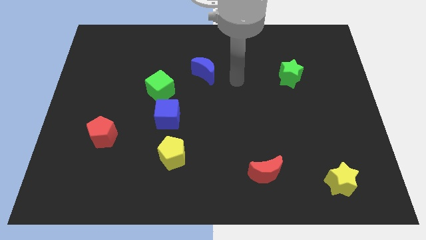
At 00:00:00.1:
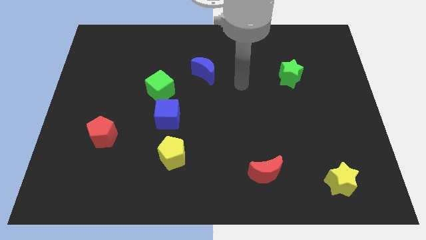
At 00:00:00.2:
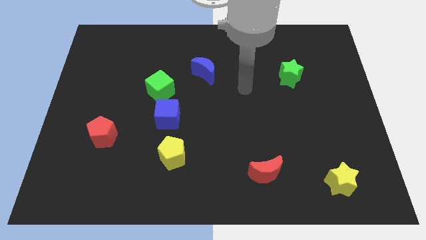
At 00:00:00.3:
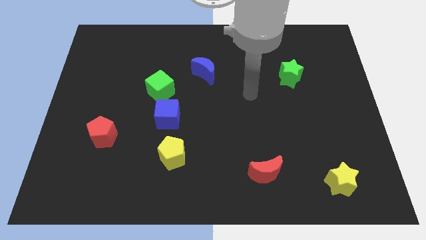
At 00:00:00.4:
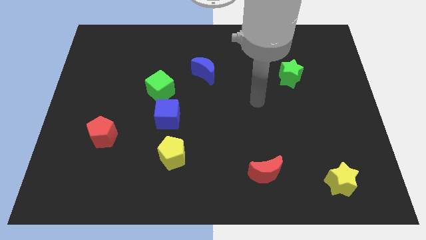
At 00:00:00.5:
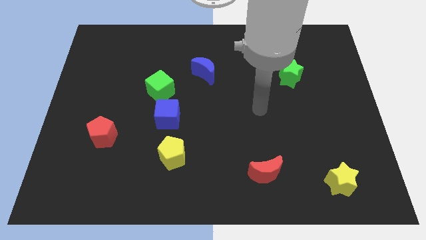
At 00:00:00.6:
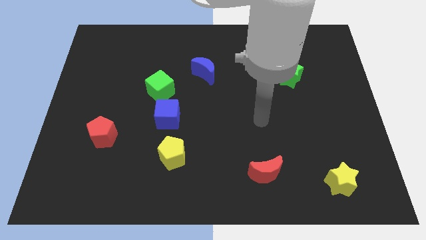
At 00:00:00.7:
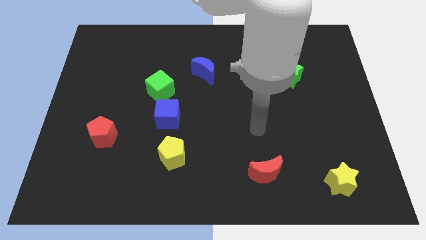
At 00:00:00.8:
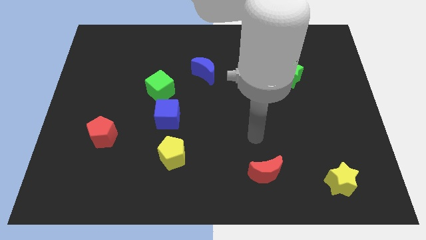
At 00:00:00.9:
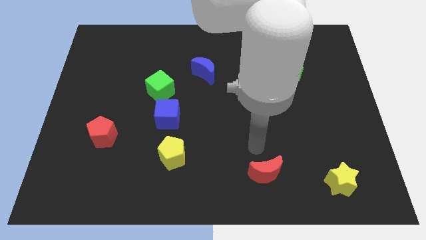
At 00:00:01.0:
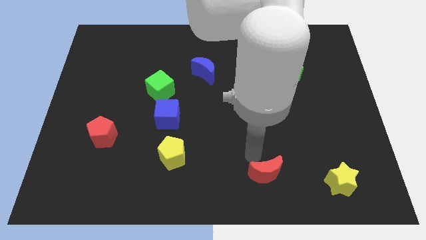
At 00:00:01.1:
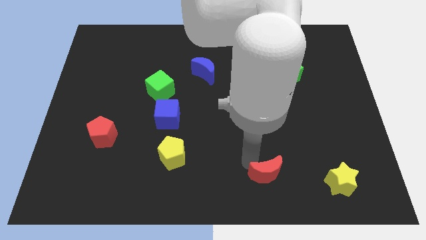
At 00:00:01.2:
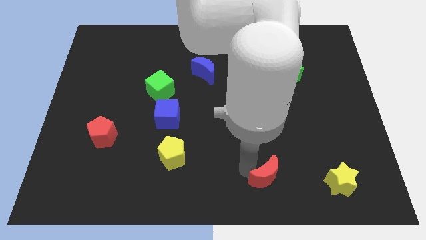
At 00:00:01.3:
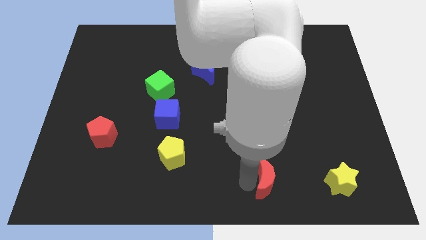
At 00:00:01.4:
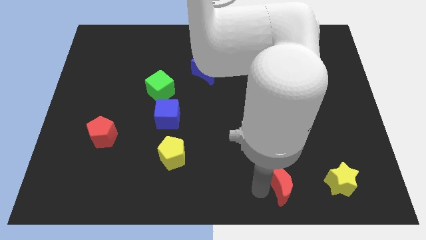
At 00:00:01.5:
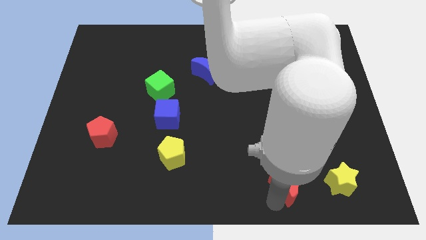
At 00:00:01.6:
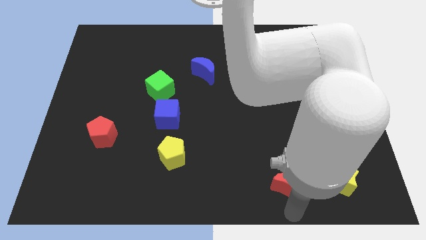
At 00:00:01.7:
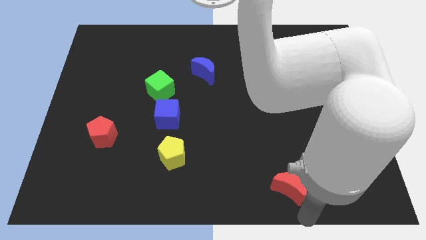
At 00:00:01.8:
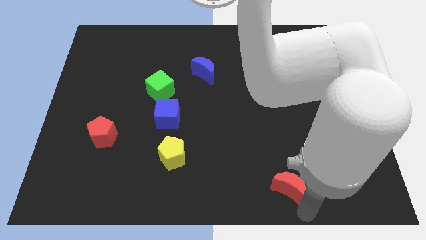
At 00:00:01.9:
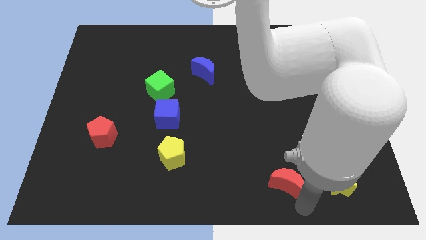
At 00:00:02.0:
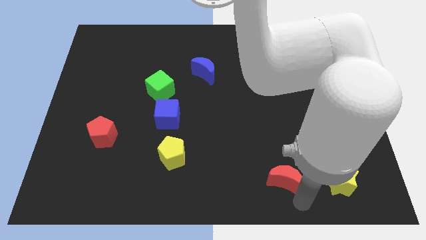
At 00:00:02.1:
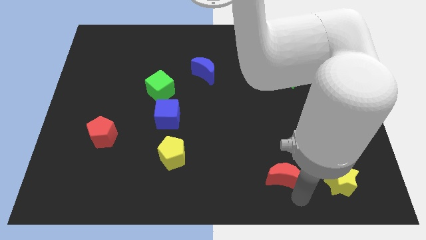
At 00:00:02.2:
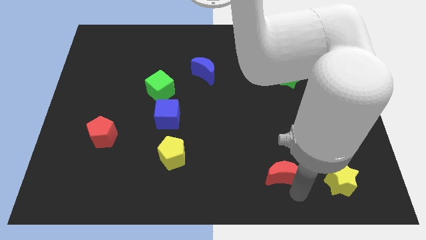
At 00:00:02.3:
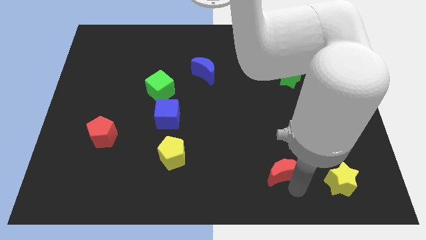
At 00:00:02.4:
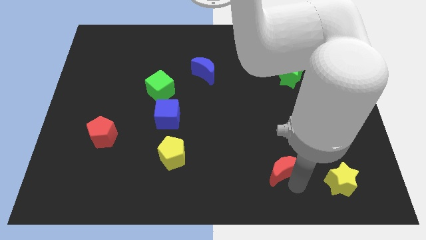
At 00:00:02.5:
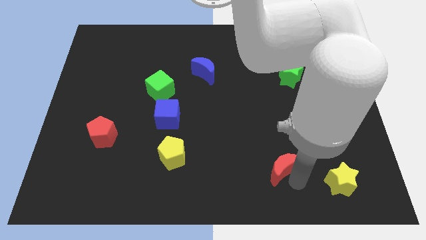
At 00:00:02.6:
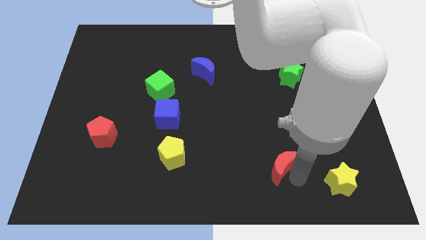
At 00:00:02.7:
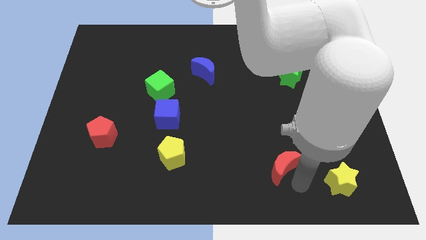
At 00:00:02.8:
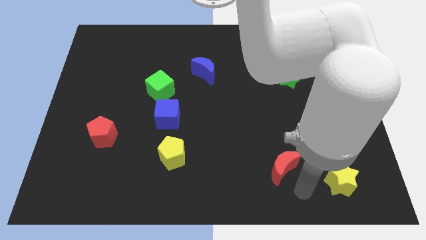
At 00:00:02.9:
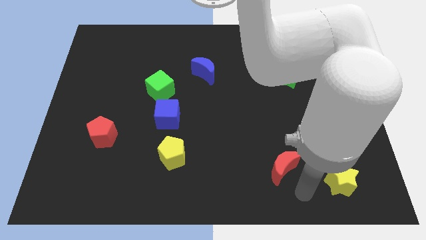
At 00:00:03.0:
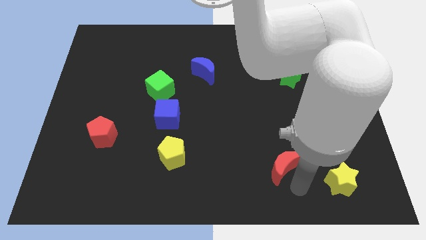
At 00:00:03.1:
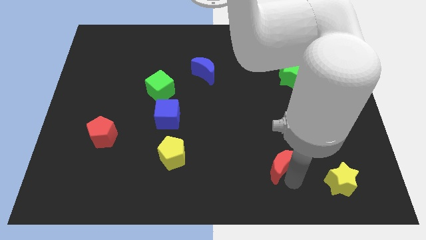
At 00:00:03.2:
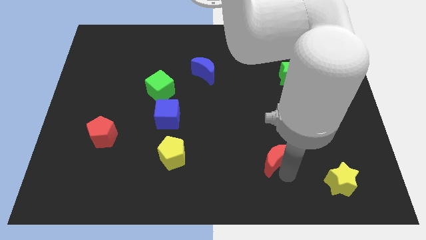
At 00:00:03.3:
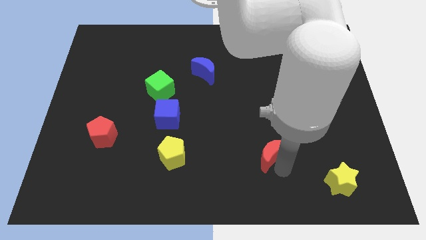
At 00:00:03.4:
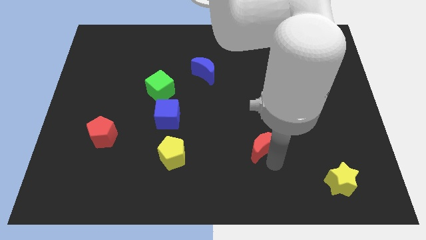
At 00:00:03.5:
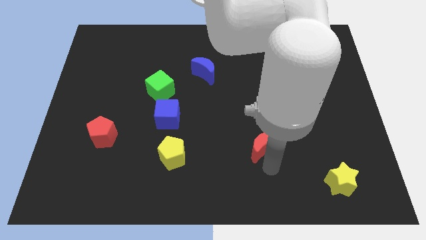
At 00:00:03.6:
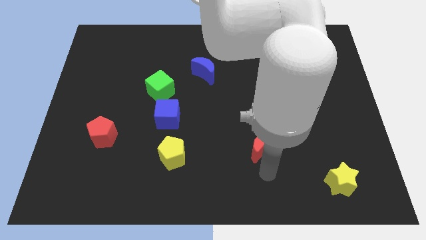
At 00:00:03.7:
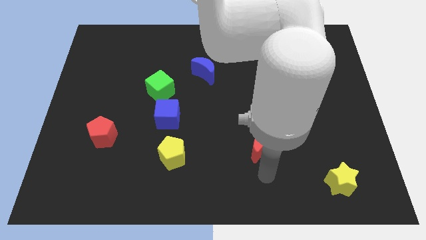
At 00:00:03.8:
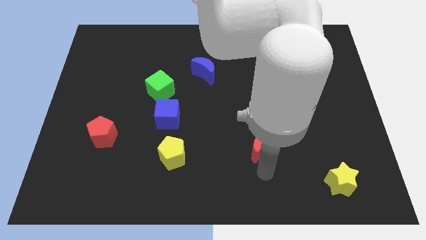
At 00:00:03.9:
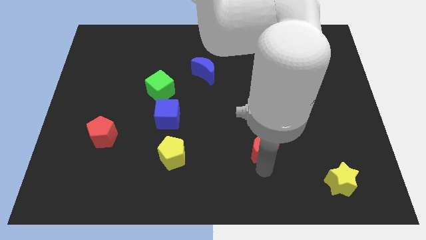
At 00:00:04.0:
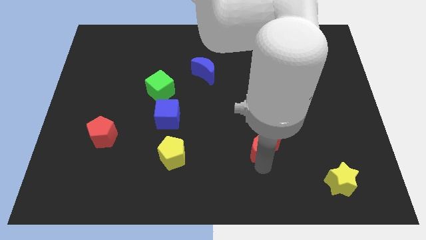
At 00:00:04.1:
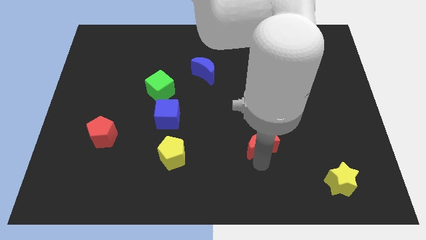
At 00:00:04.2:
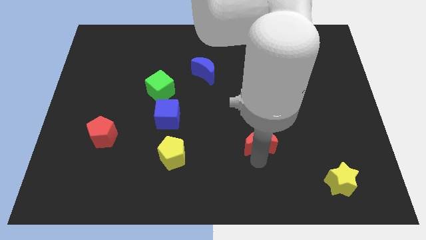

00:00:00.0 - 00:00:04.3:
slightly push the red moon upwards

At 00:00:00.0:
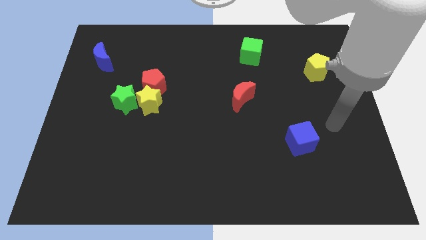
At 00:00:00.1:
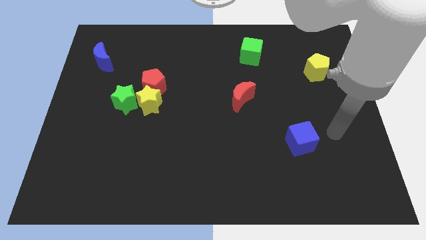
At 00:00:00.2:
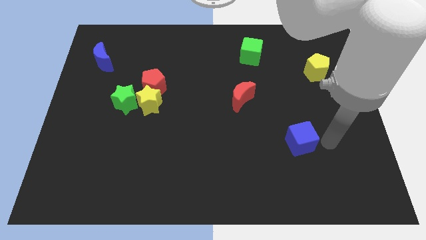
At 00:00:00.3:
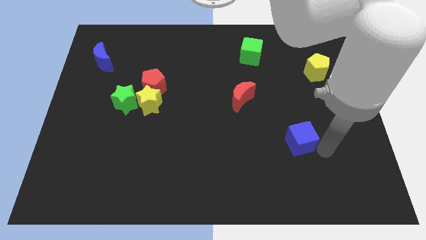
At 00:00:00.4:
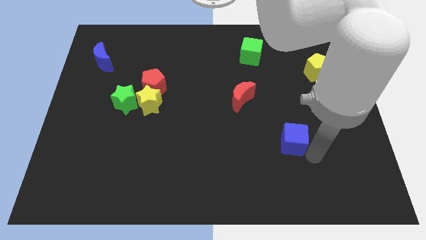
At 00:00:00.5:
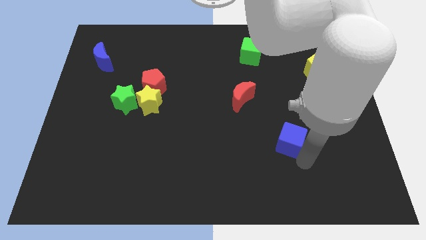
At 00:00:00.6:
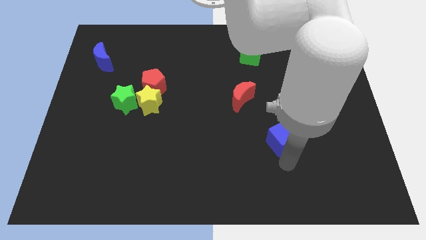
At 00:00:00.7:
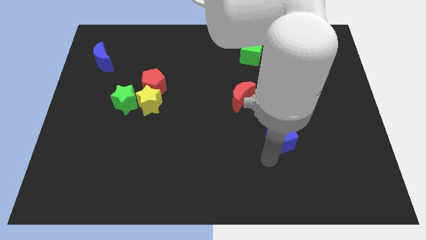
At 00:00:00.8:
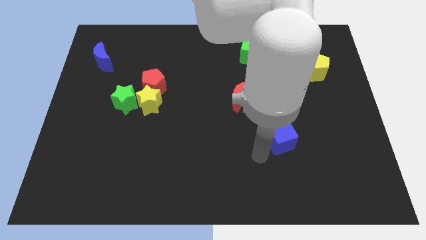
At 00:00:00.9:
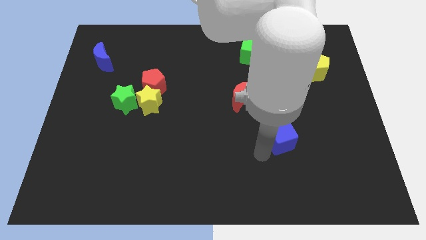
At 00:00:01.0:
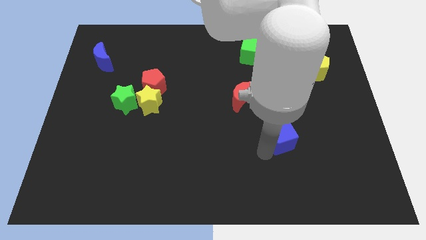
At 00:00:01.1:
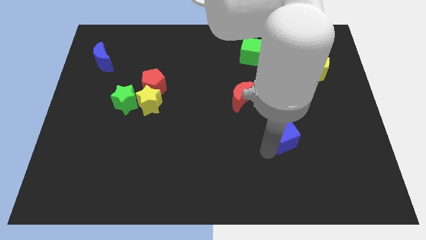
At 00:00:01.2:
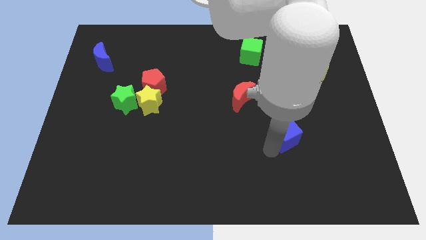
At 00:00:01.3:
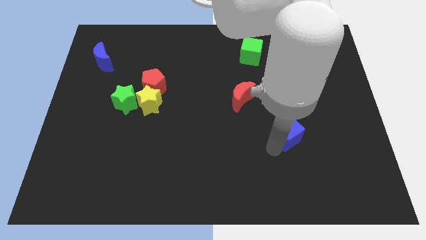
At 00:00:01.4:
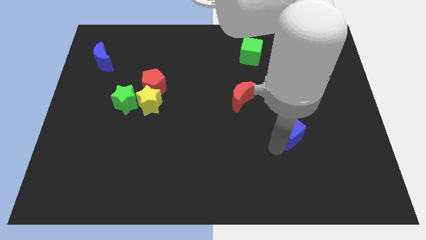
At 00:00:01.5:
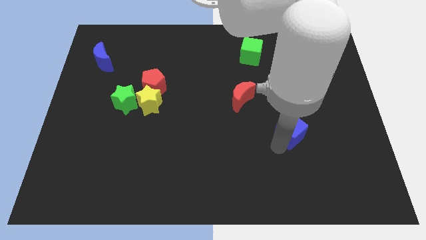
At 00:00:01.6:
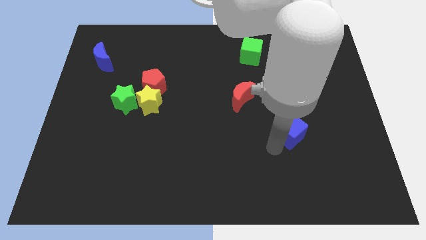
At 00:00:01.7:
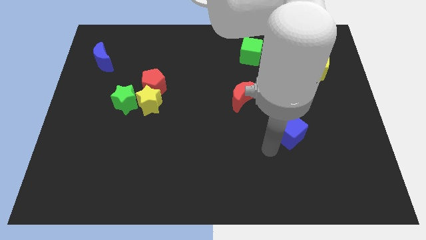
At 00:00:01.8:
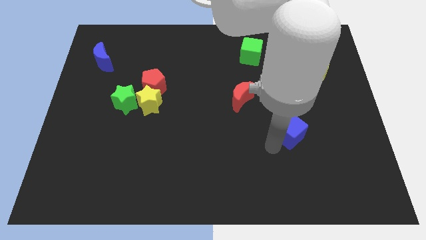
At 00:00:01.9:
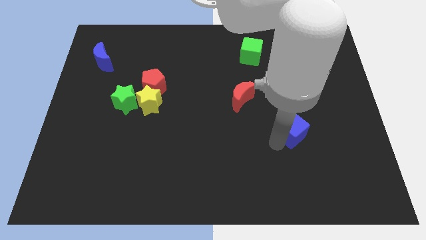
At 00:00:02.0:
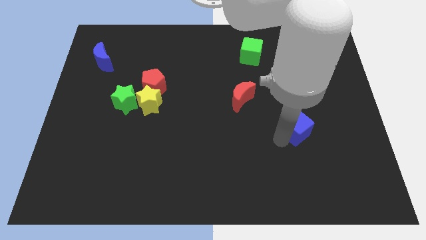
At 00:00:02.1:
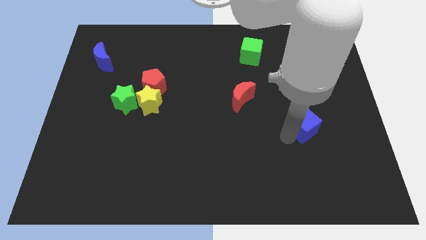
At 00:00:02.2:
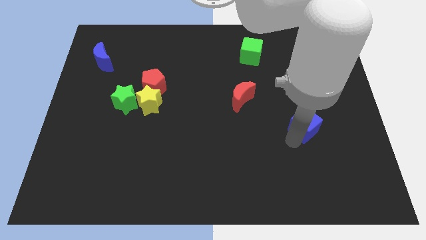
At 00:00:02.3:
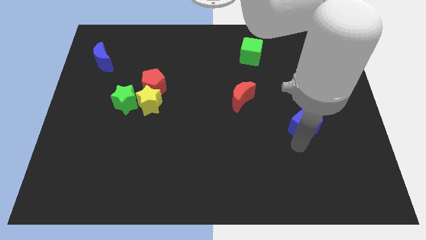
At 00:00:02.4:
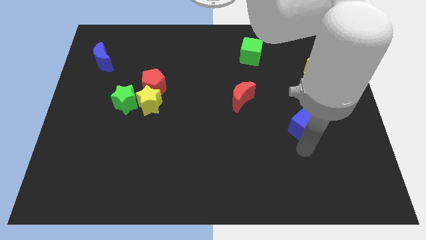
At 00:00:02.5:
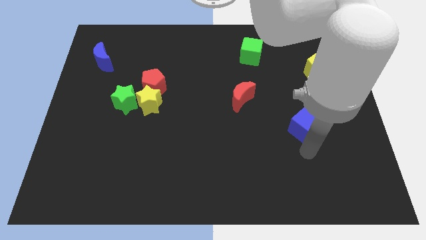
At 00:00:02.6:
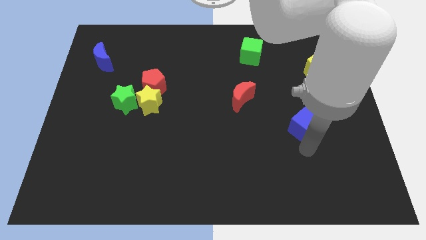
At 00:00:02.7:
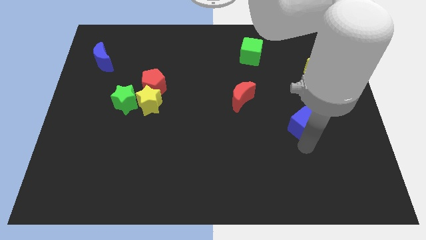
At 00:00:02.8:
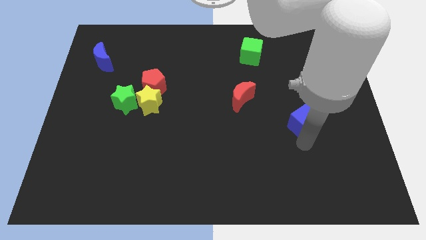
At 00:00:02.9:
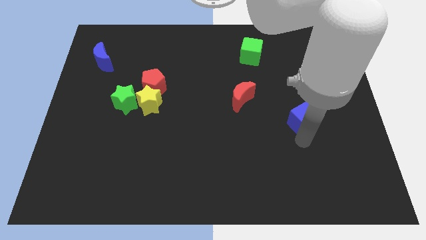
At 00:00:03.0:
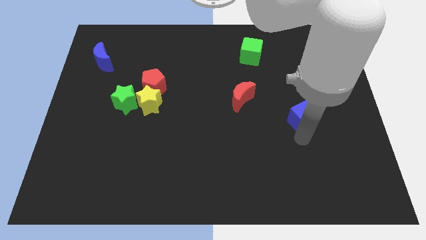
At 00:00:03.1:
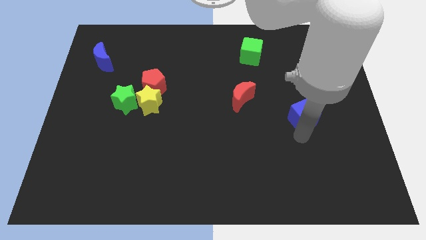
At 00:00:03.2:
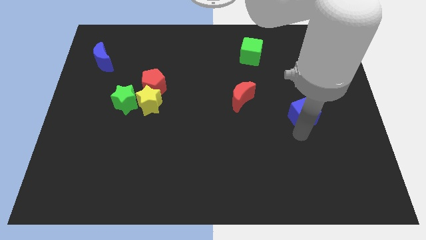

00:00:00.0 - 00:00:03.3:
slightly slide the blue cube up

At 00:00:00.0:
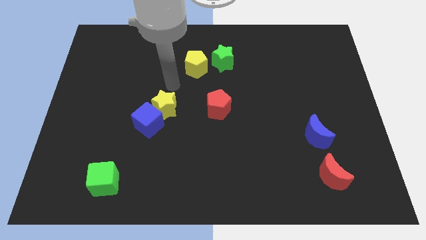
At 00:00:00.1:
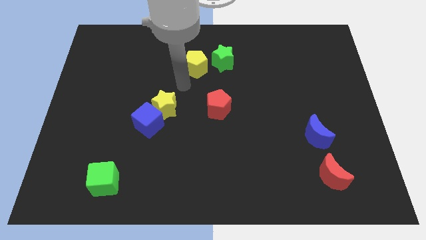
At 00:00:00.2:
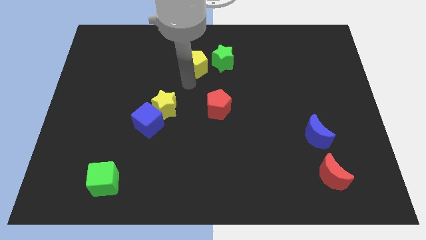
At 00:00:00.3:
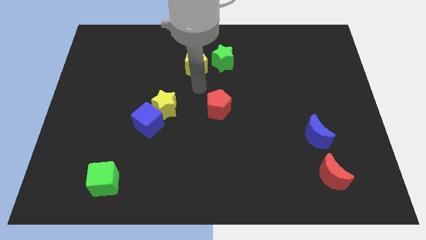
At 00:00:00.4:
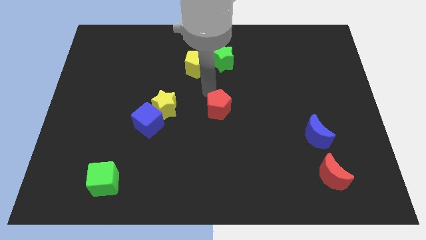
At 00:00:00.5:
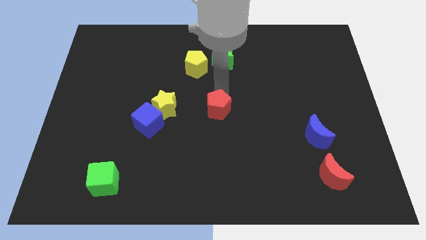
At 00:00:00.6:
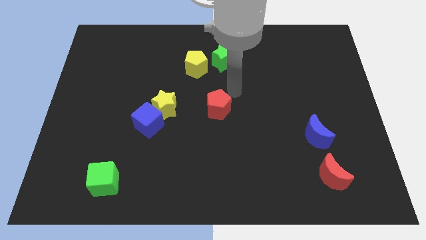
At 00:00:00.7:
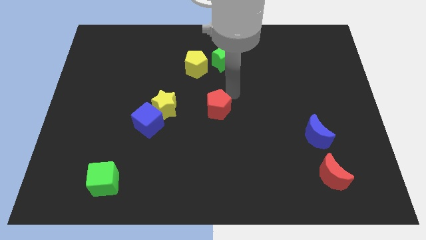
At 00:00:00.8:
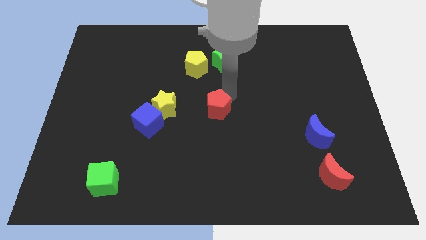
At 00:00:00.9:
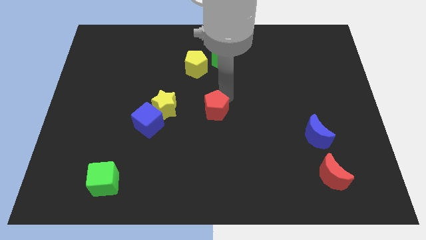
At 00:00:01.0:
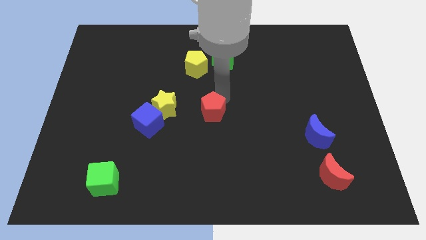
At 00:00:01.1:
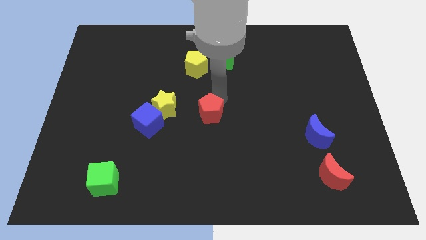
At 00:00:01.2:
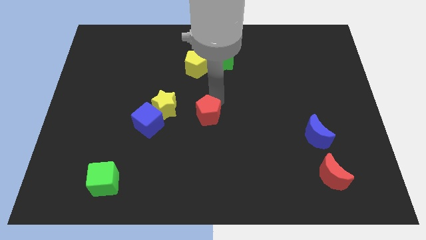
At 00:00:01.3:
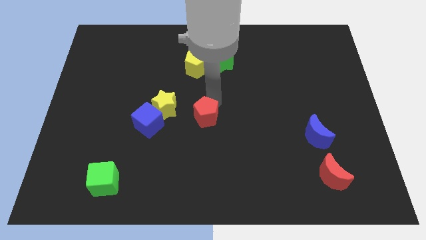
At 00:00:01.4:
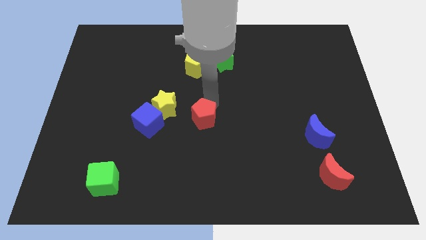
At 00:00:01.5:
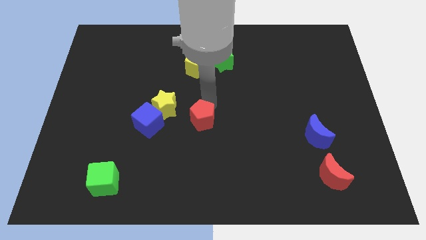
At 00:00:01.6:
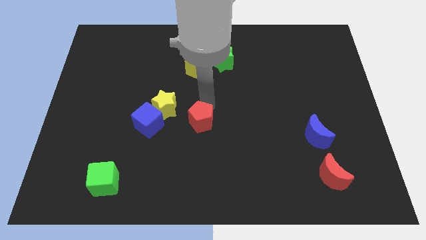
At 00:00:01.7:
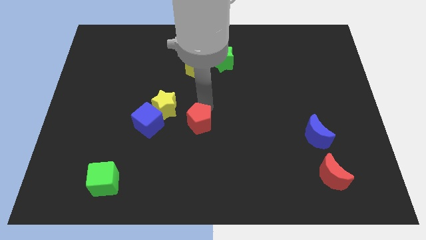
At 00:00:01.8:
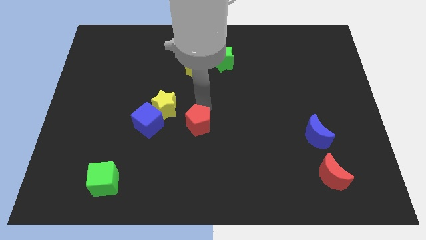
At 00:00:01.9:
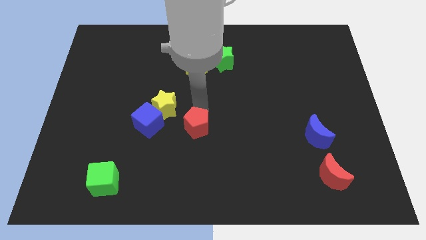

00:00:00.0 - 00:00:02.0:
slightly slide the red pentagon down and then to the left
